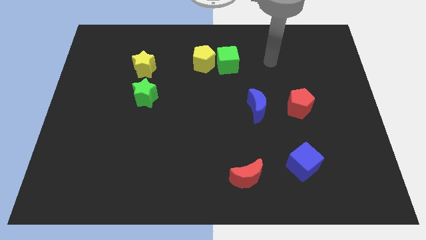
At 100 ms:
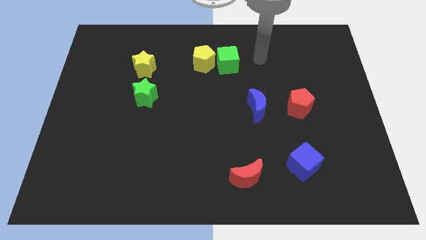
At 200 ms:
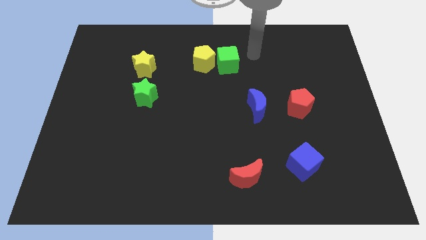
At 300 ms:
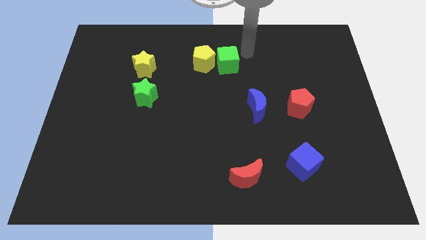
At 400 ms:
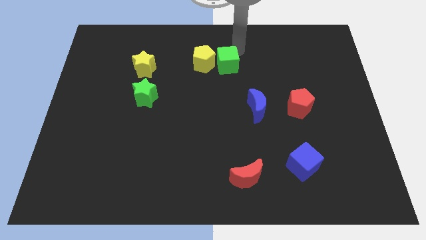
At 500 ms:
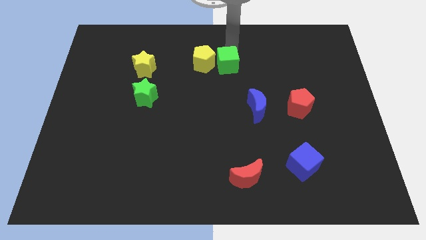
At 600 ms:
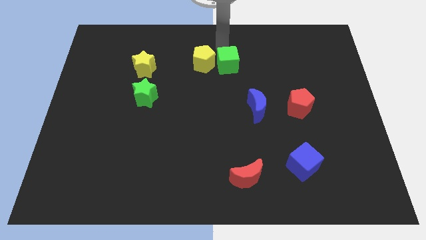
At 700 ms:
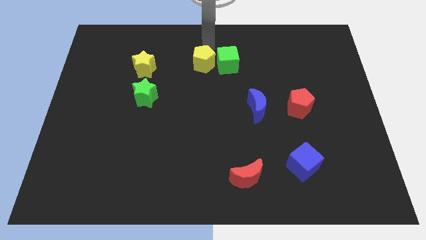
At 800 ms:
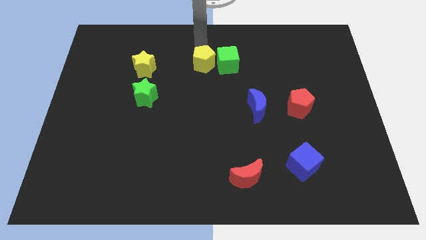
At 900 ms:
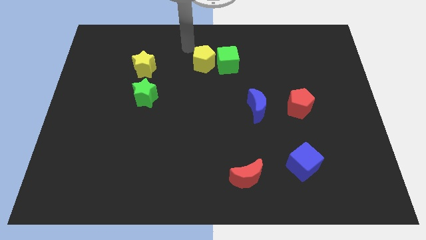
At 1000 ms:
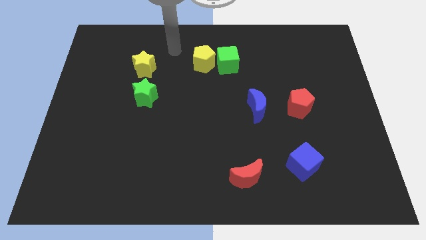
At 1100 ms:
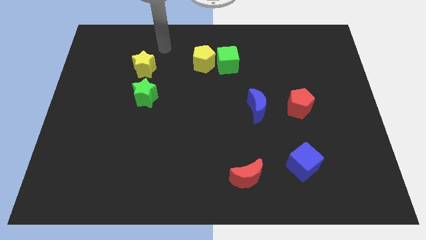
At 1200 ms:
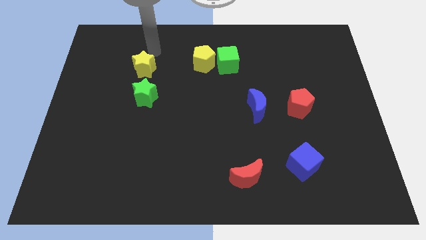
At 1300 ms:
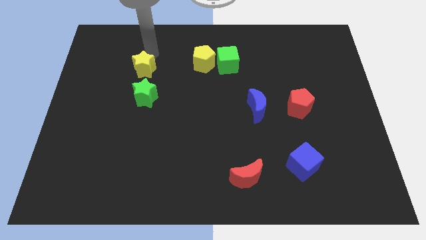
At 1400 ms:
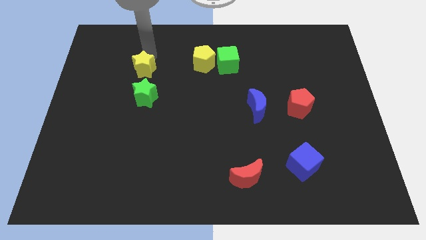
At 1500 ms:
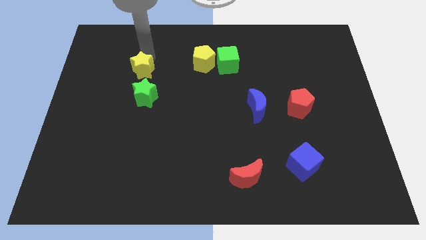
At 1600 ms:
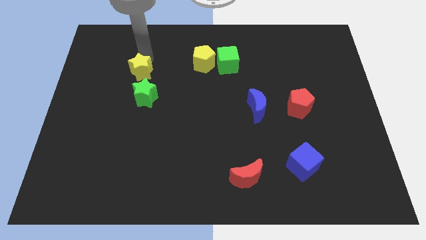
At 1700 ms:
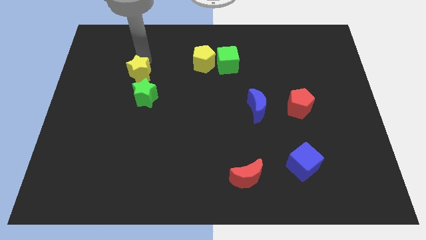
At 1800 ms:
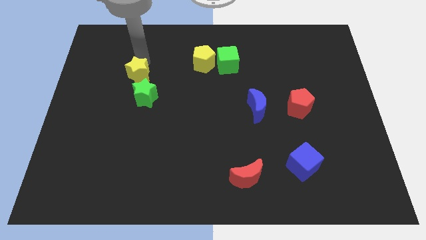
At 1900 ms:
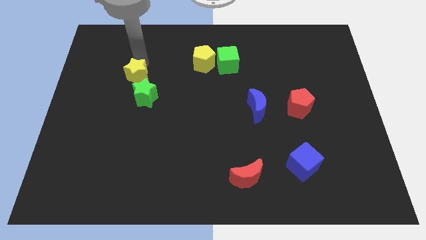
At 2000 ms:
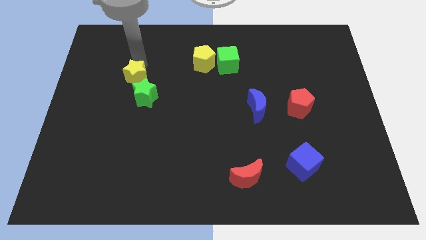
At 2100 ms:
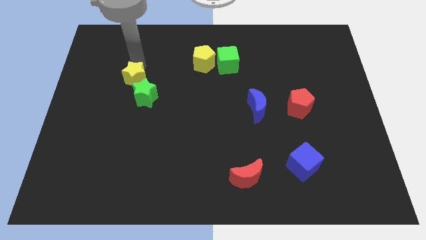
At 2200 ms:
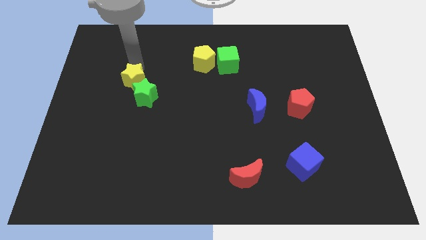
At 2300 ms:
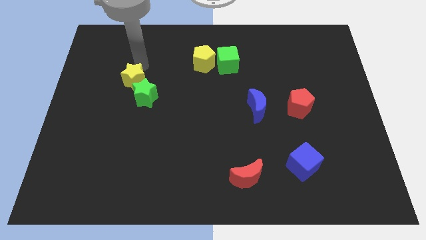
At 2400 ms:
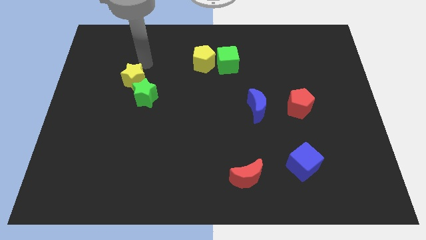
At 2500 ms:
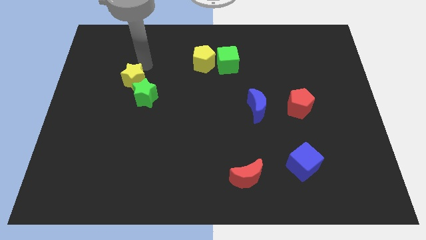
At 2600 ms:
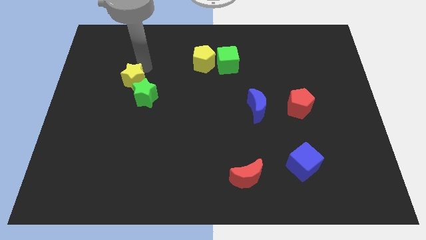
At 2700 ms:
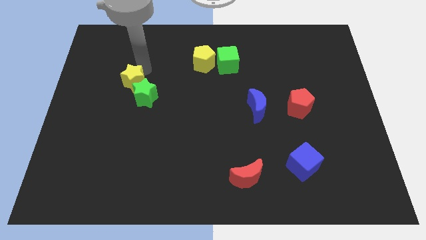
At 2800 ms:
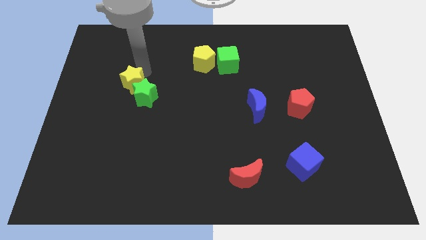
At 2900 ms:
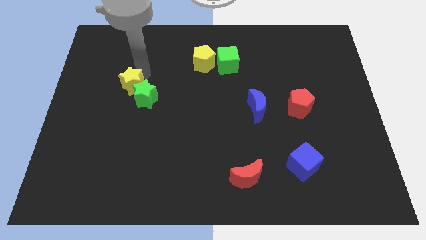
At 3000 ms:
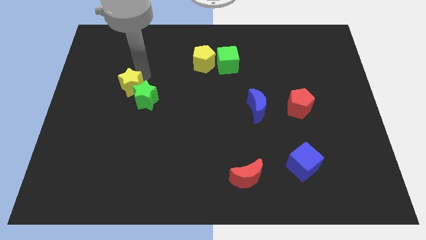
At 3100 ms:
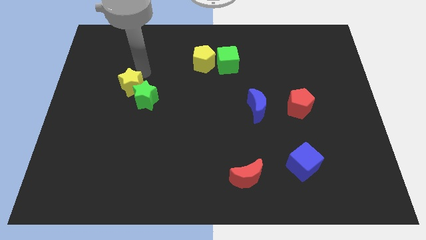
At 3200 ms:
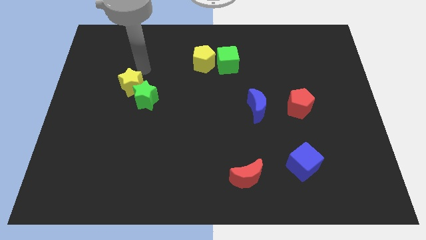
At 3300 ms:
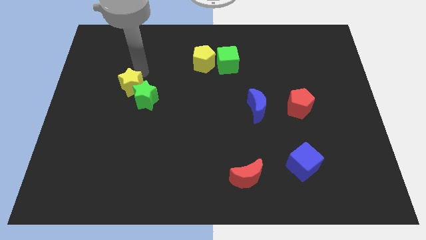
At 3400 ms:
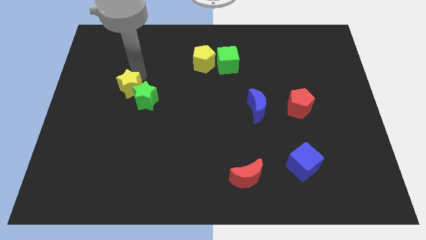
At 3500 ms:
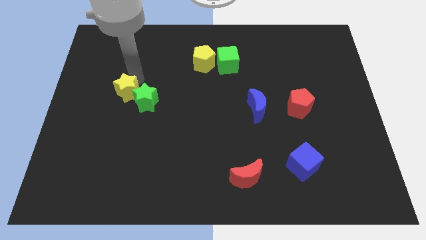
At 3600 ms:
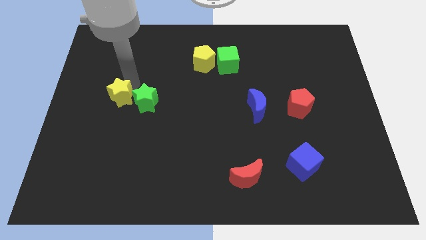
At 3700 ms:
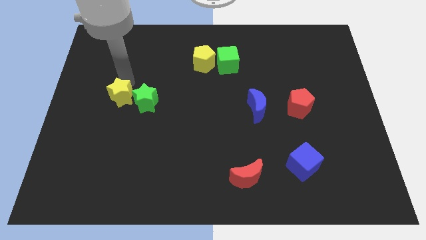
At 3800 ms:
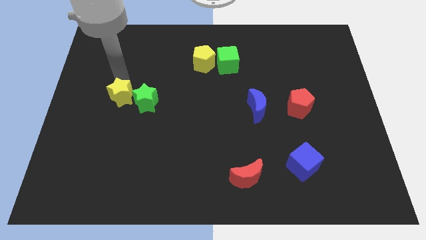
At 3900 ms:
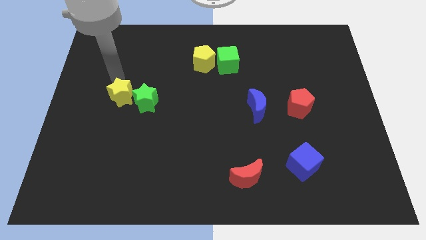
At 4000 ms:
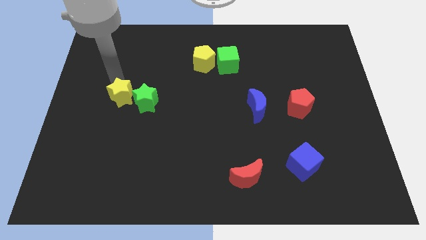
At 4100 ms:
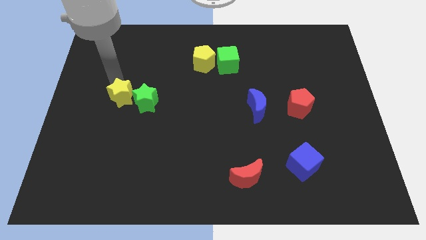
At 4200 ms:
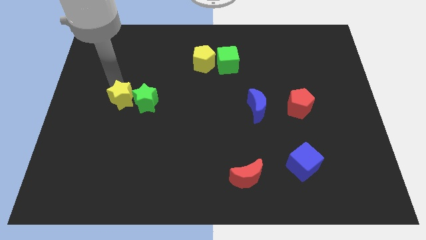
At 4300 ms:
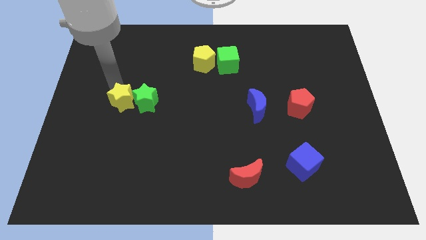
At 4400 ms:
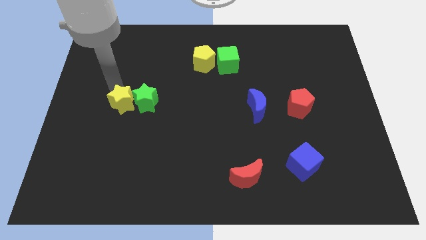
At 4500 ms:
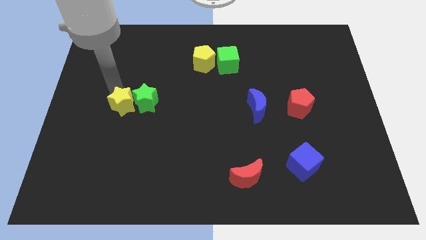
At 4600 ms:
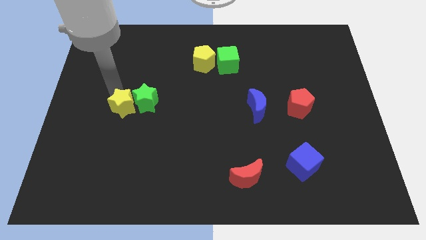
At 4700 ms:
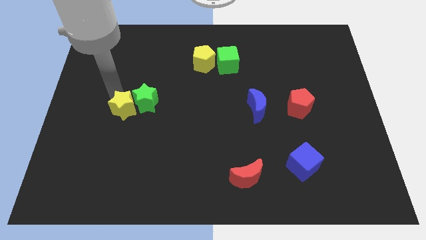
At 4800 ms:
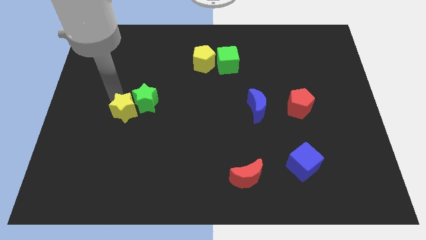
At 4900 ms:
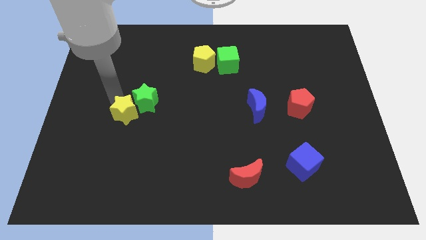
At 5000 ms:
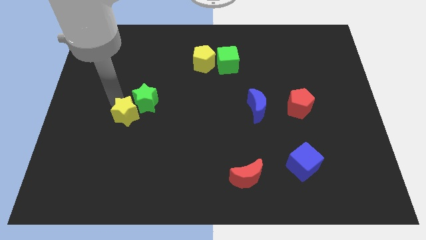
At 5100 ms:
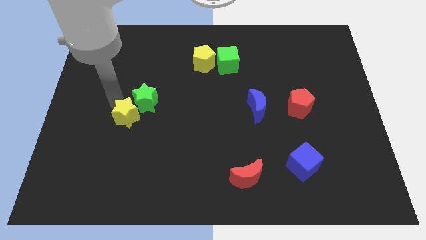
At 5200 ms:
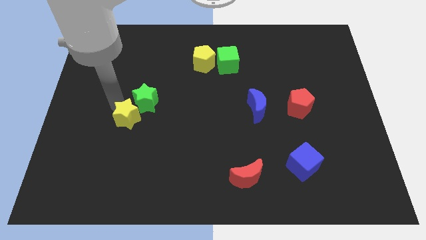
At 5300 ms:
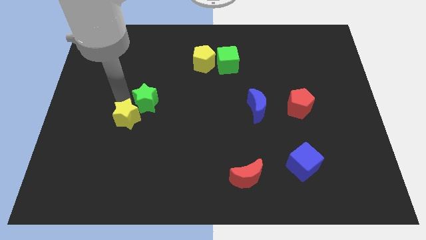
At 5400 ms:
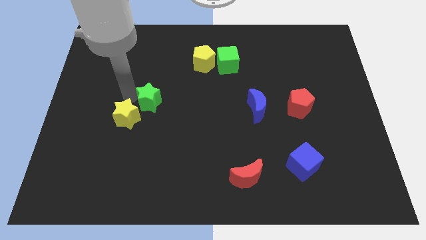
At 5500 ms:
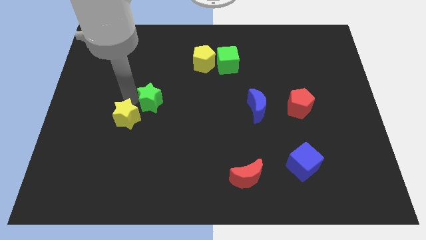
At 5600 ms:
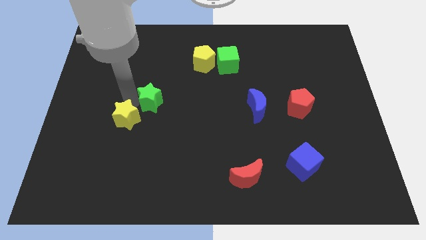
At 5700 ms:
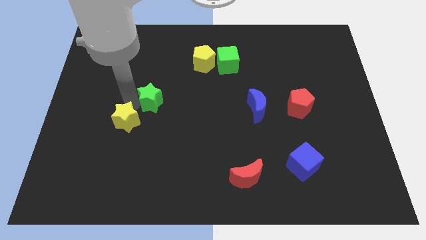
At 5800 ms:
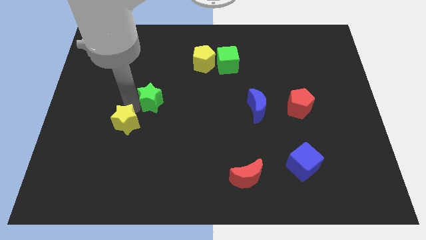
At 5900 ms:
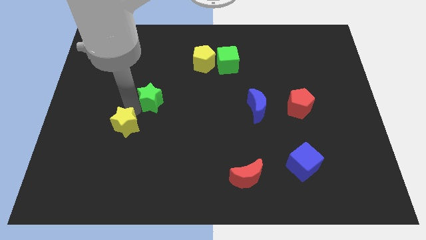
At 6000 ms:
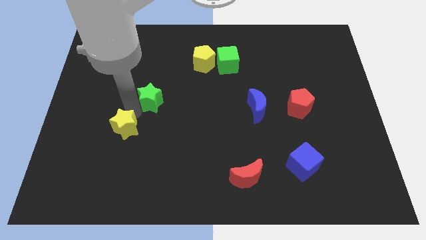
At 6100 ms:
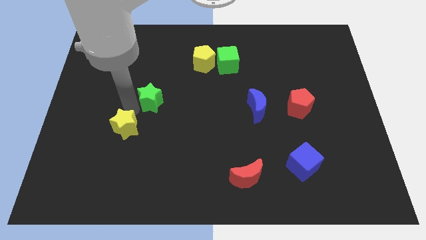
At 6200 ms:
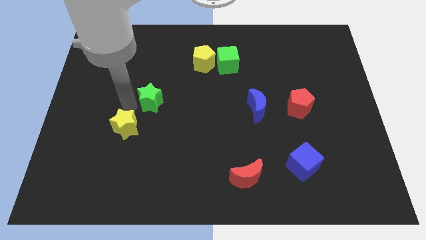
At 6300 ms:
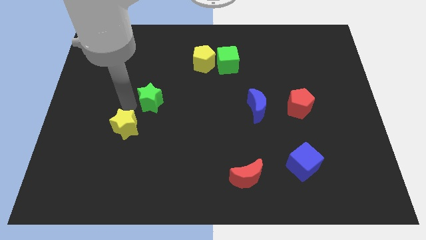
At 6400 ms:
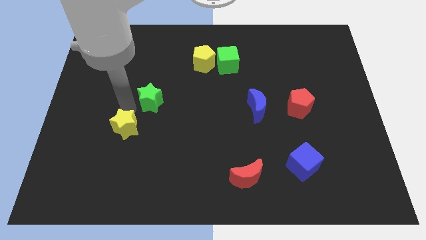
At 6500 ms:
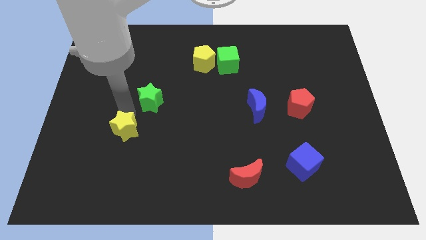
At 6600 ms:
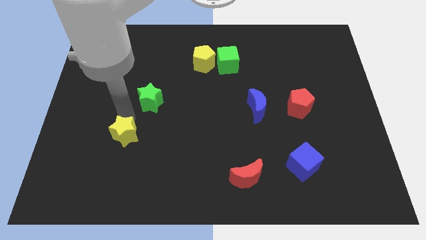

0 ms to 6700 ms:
push the yellow star downwards

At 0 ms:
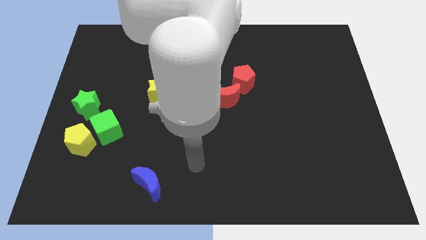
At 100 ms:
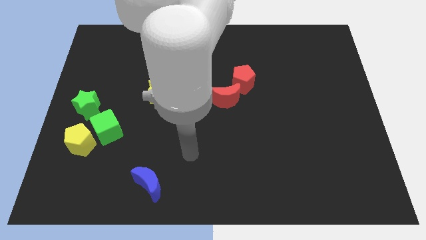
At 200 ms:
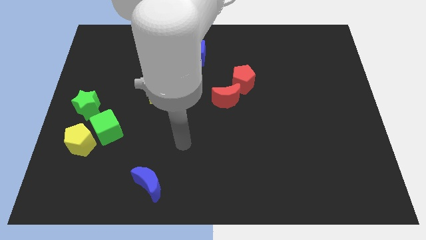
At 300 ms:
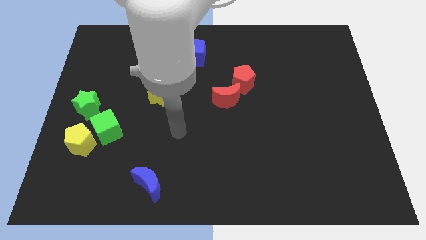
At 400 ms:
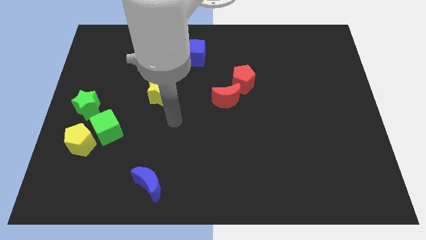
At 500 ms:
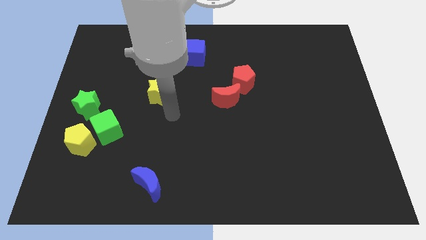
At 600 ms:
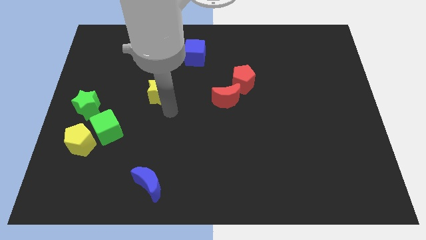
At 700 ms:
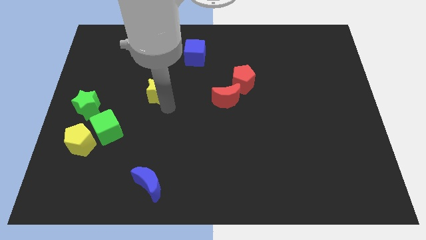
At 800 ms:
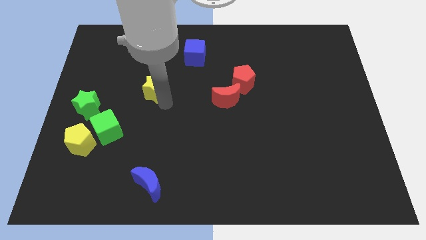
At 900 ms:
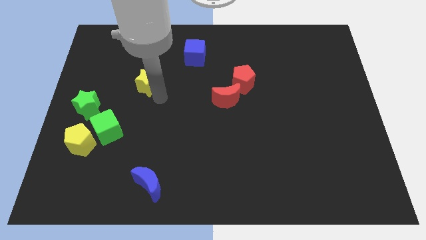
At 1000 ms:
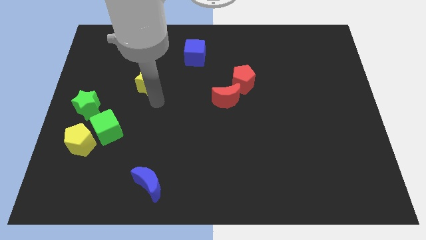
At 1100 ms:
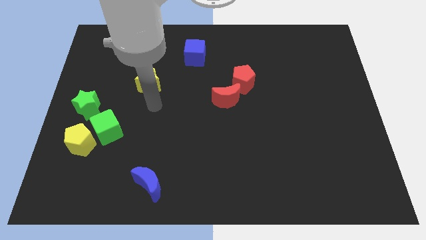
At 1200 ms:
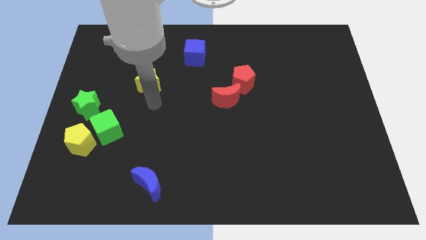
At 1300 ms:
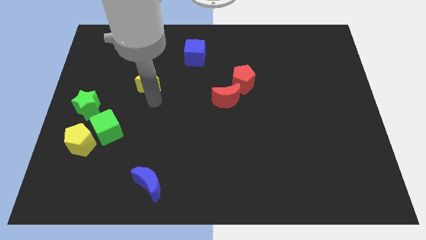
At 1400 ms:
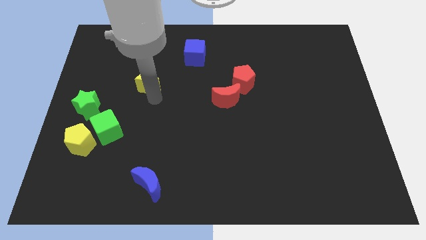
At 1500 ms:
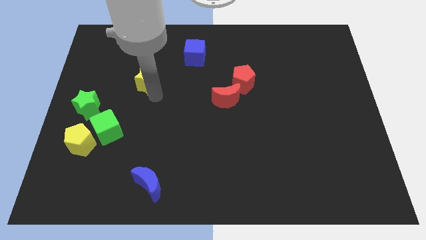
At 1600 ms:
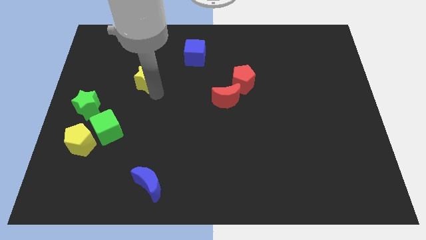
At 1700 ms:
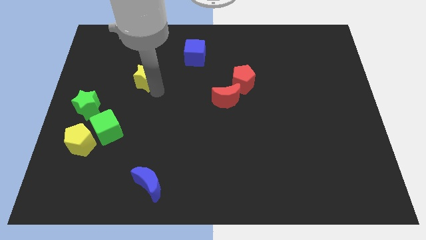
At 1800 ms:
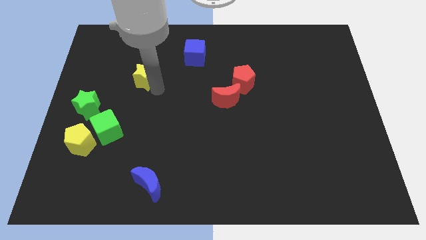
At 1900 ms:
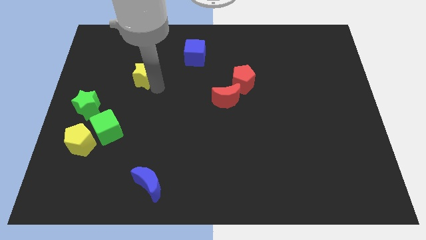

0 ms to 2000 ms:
slightly push the yellow star up and then left
